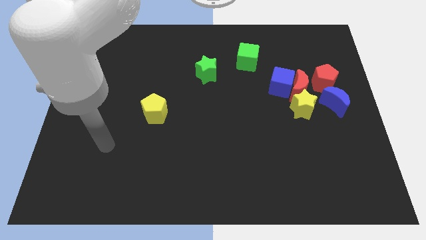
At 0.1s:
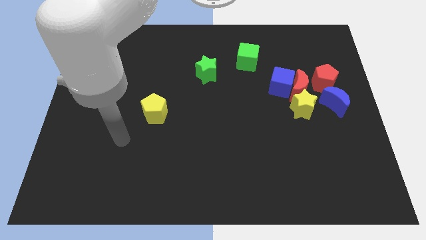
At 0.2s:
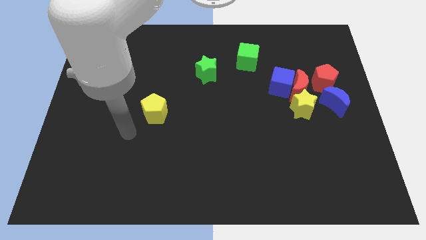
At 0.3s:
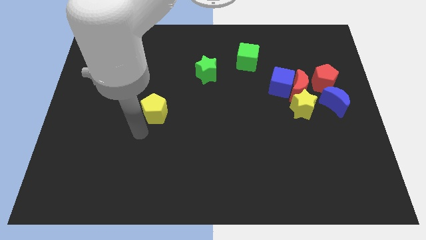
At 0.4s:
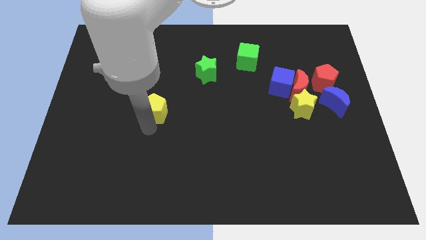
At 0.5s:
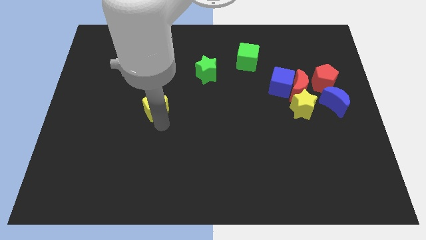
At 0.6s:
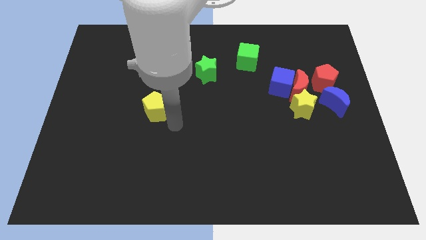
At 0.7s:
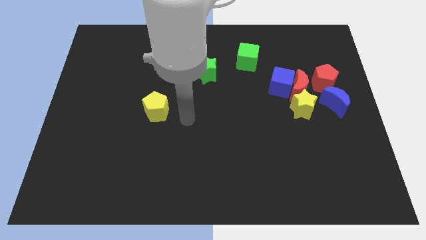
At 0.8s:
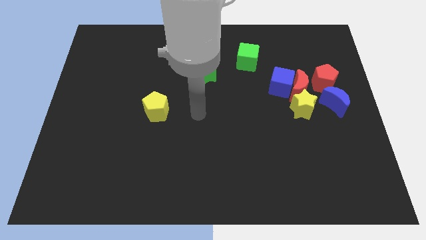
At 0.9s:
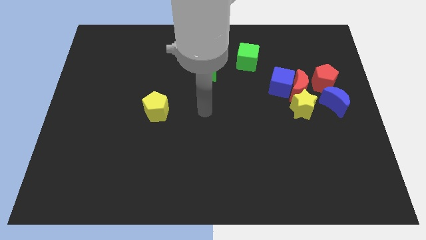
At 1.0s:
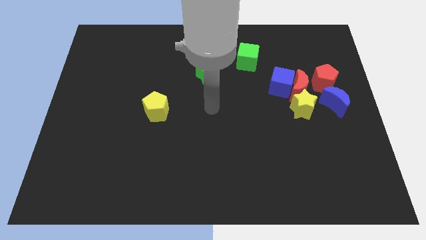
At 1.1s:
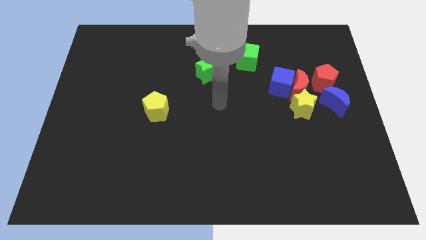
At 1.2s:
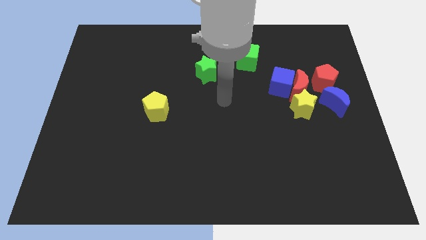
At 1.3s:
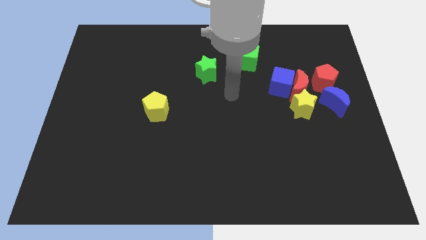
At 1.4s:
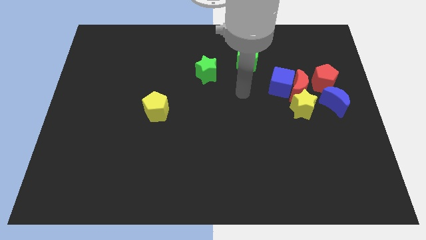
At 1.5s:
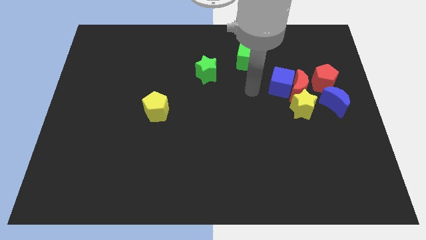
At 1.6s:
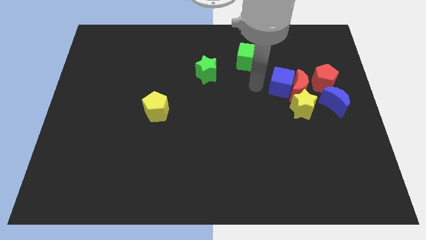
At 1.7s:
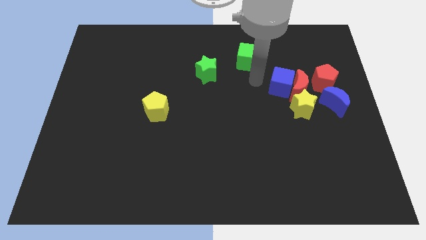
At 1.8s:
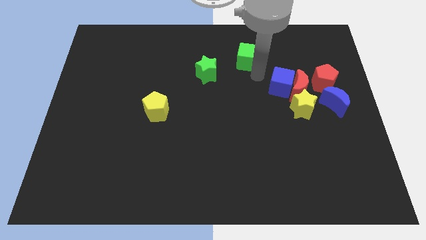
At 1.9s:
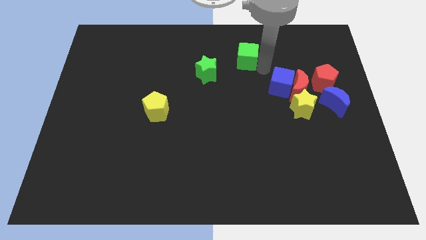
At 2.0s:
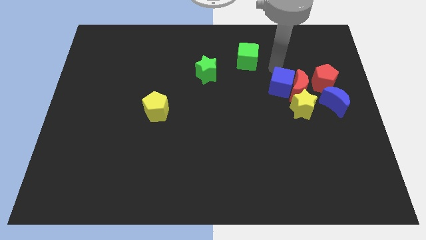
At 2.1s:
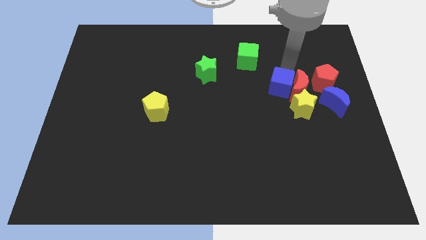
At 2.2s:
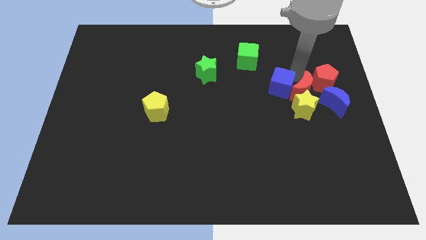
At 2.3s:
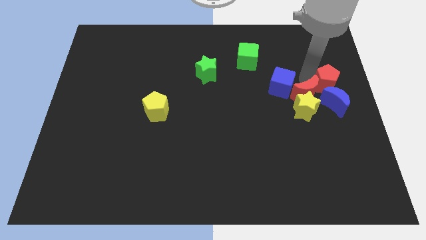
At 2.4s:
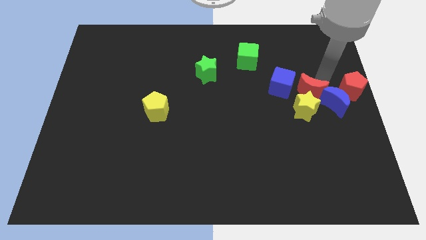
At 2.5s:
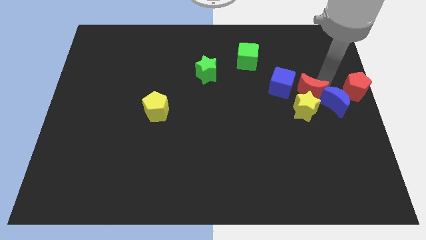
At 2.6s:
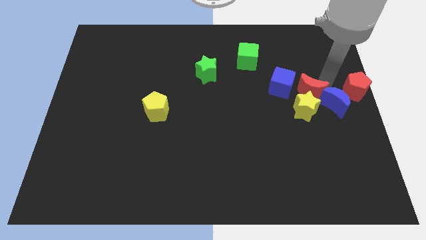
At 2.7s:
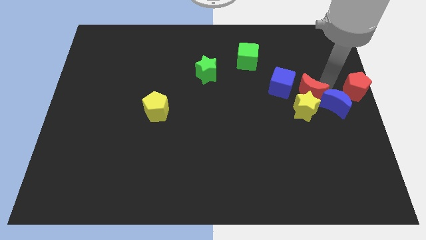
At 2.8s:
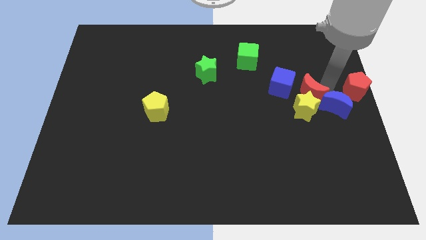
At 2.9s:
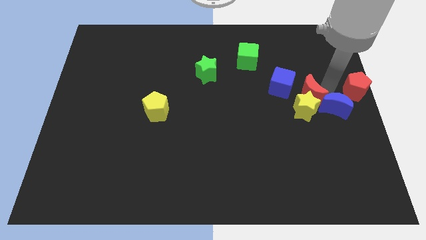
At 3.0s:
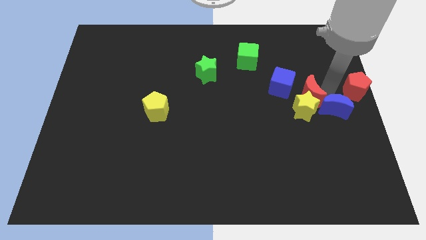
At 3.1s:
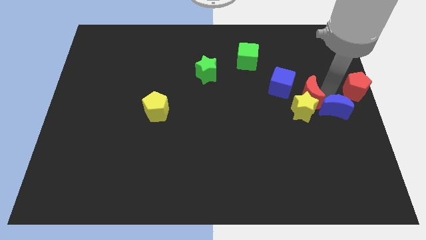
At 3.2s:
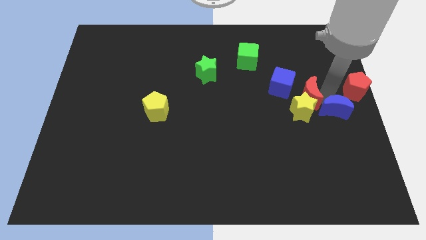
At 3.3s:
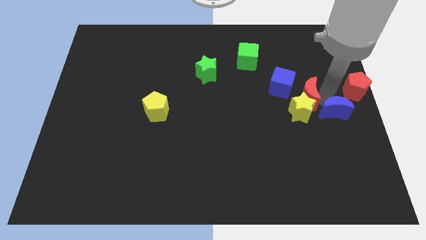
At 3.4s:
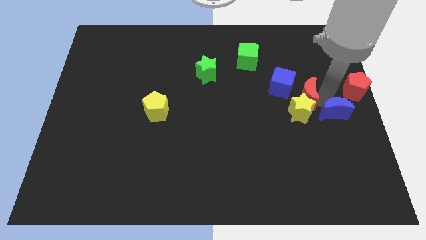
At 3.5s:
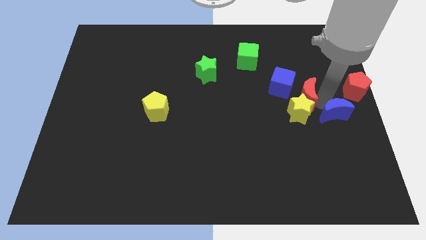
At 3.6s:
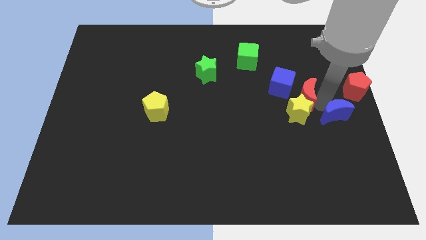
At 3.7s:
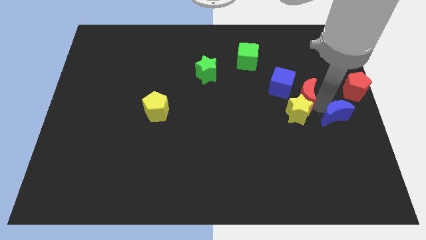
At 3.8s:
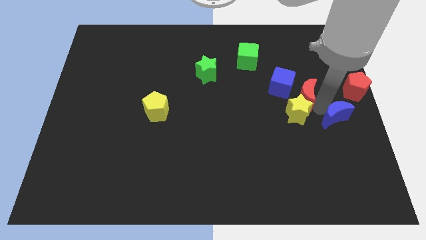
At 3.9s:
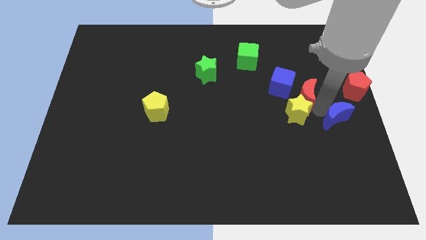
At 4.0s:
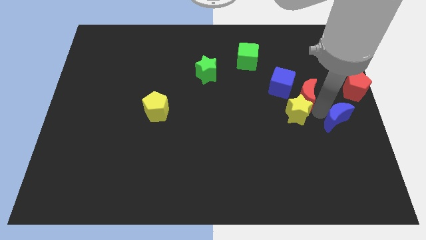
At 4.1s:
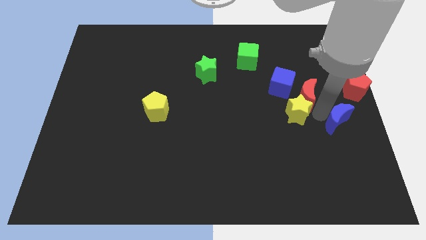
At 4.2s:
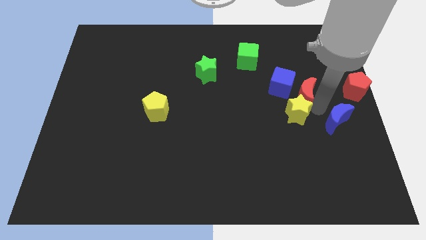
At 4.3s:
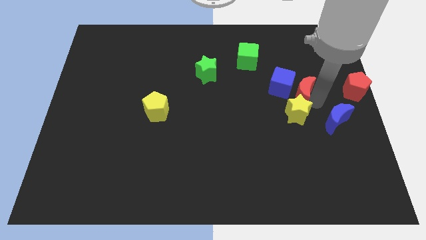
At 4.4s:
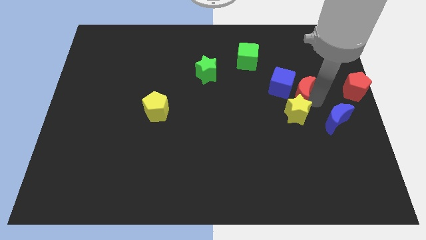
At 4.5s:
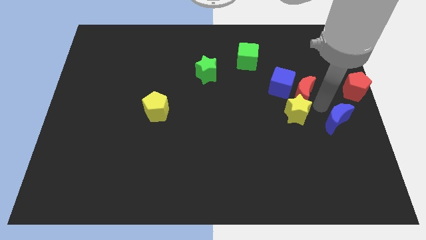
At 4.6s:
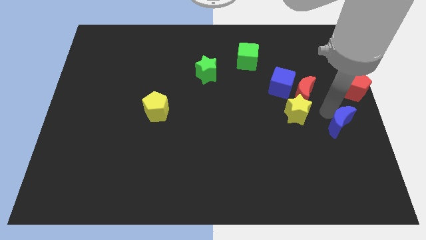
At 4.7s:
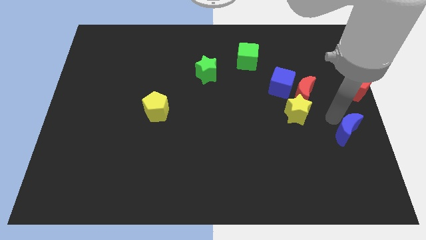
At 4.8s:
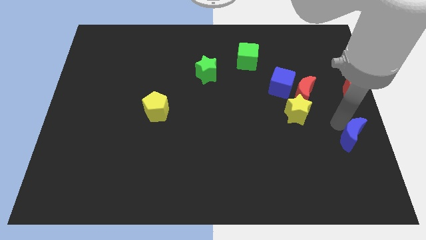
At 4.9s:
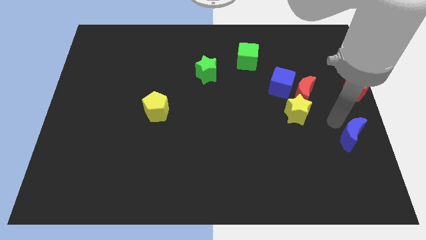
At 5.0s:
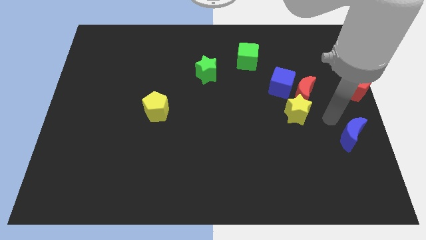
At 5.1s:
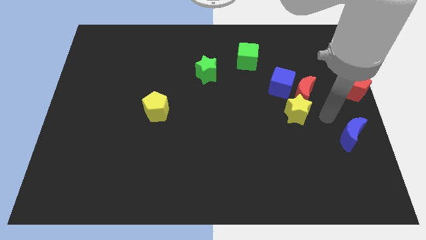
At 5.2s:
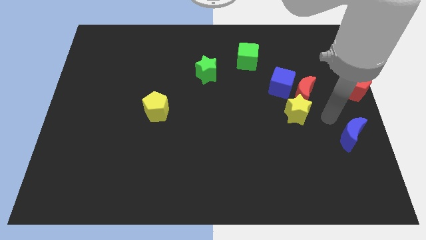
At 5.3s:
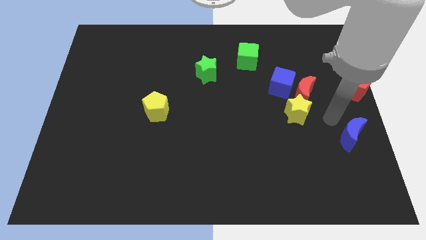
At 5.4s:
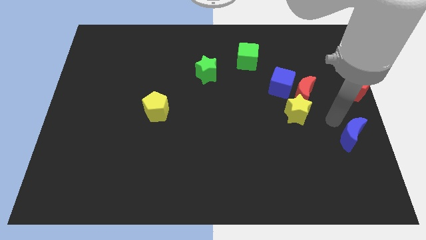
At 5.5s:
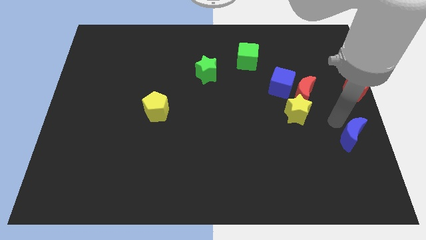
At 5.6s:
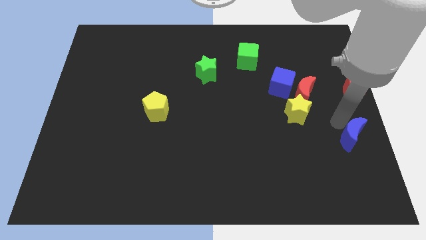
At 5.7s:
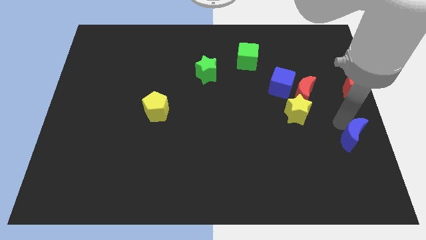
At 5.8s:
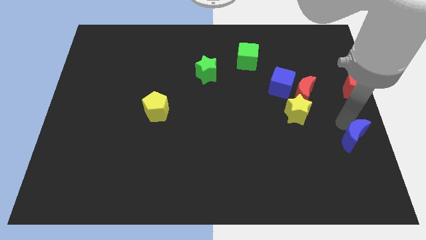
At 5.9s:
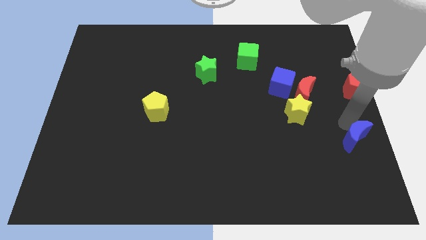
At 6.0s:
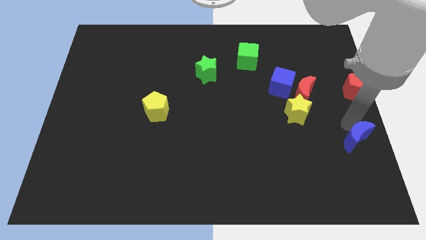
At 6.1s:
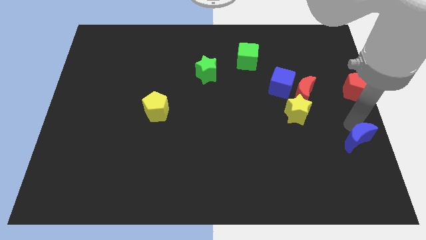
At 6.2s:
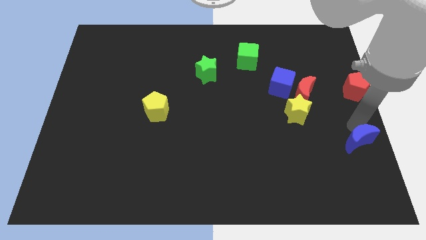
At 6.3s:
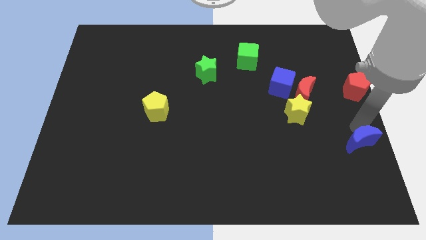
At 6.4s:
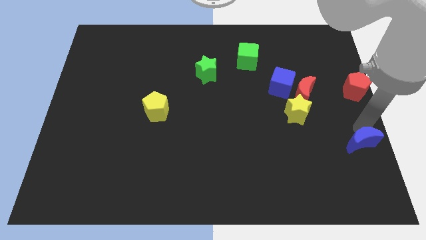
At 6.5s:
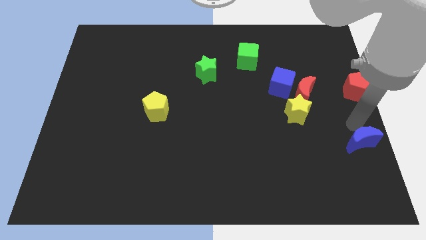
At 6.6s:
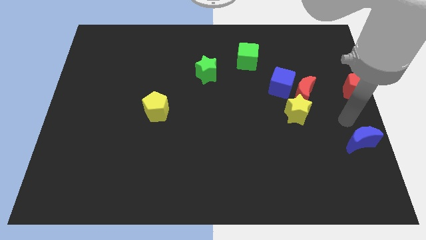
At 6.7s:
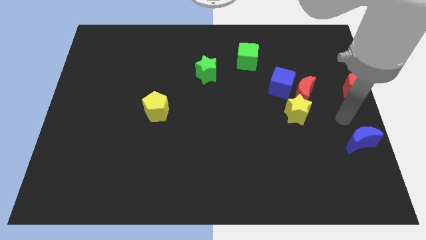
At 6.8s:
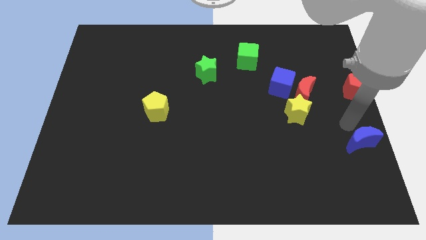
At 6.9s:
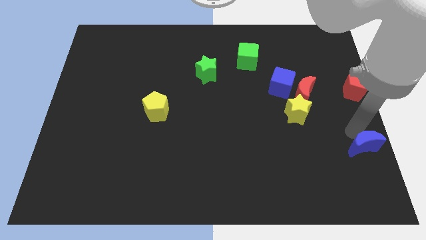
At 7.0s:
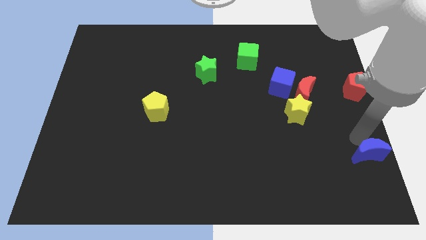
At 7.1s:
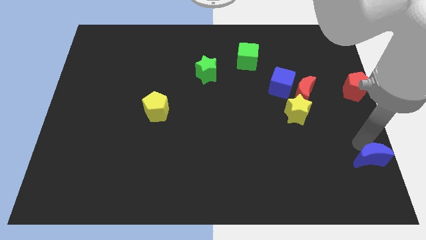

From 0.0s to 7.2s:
put the blue moon to the lower right corner
